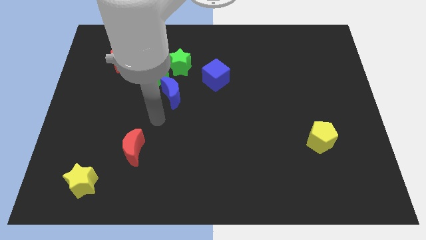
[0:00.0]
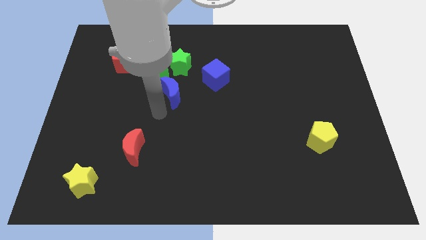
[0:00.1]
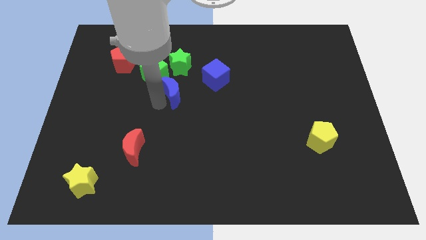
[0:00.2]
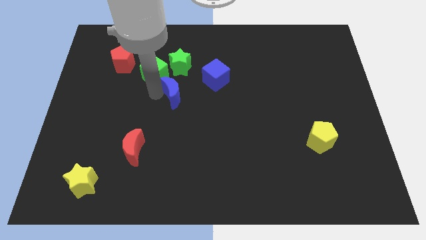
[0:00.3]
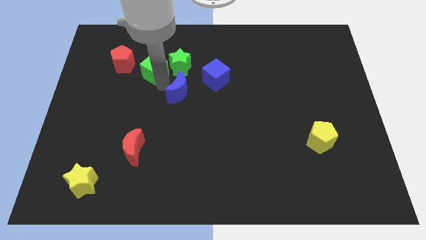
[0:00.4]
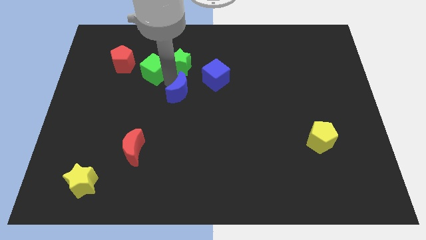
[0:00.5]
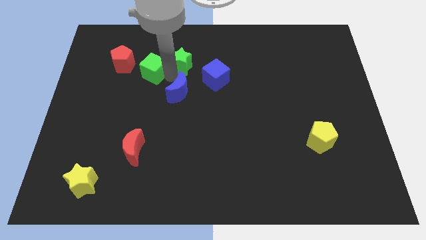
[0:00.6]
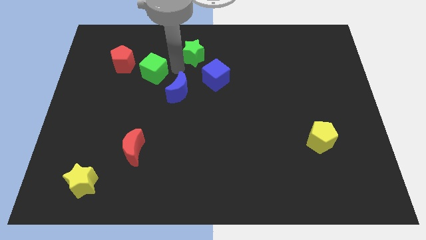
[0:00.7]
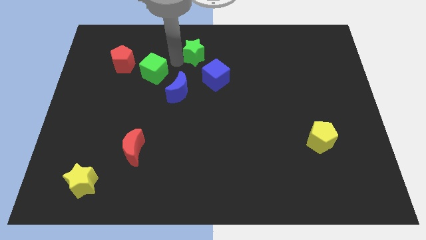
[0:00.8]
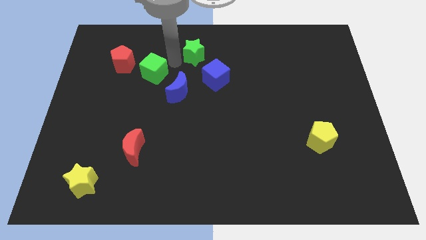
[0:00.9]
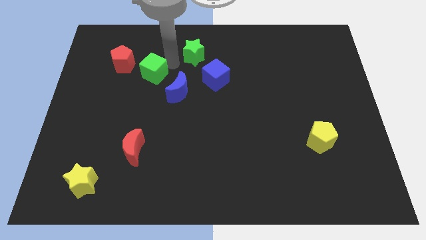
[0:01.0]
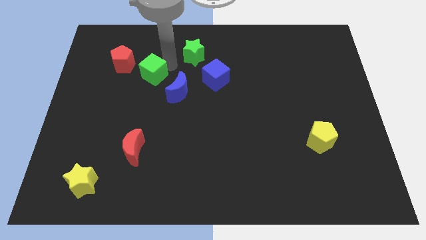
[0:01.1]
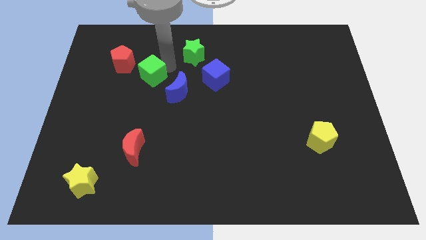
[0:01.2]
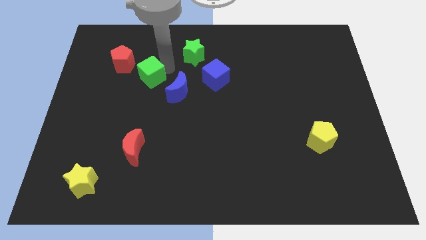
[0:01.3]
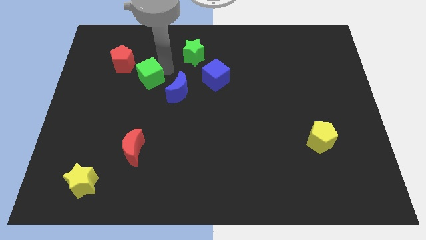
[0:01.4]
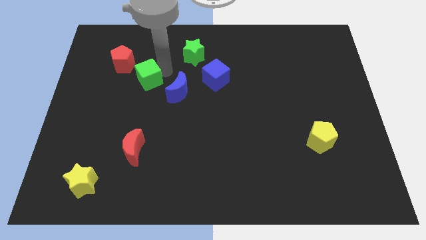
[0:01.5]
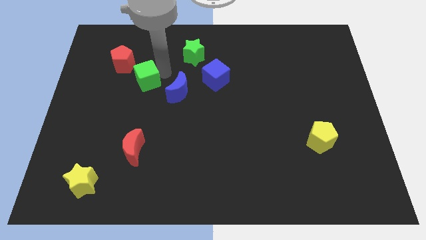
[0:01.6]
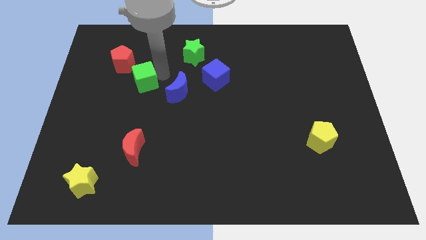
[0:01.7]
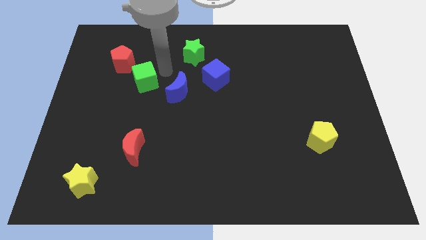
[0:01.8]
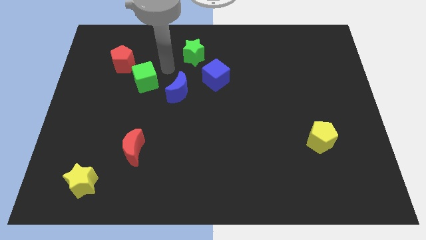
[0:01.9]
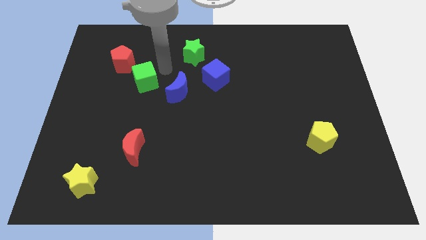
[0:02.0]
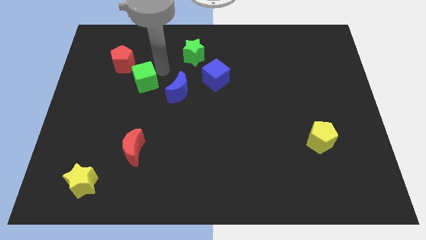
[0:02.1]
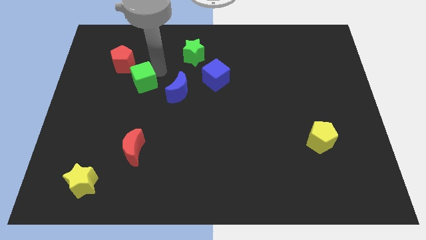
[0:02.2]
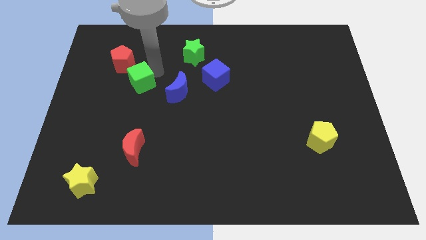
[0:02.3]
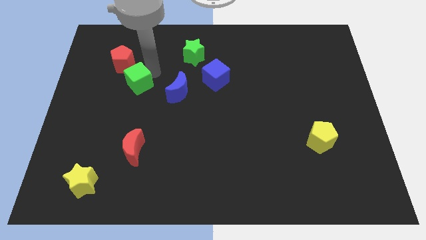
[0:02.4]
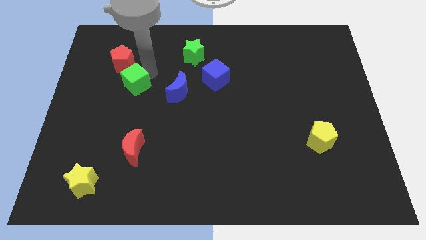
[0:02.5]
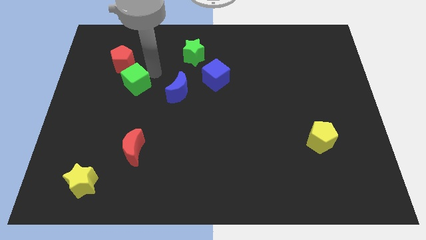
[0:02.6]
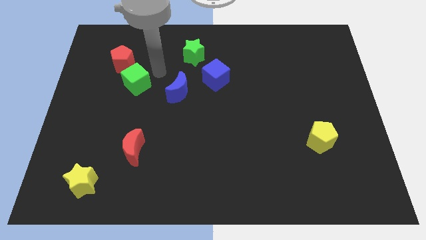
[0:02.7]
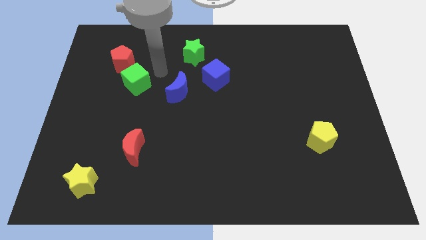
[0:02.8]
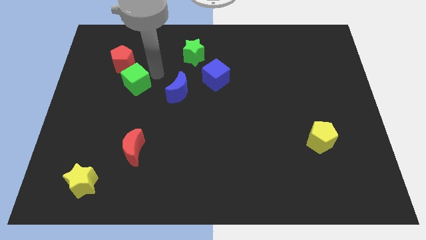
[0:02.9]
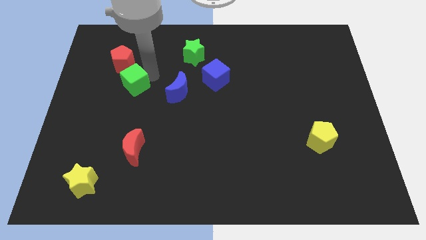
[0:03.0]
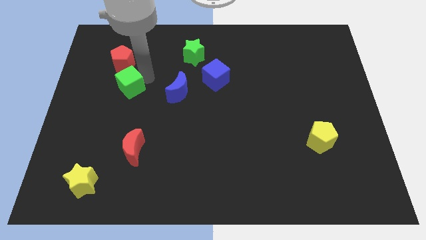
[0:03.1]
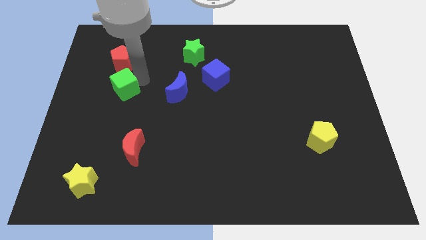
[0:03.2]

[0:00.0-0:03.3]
move the green cube away from the group

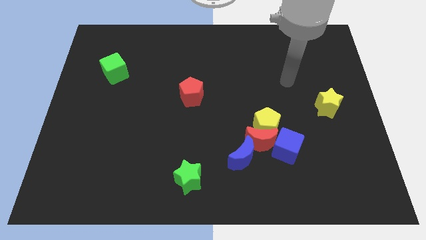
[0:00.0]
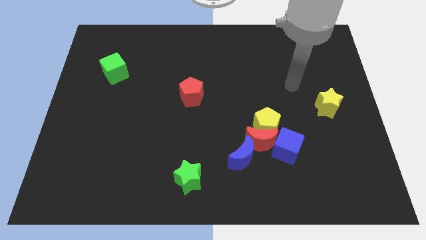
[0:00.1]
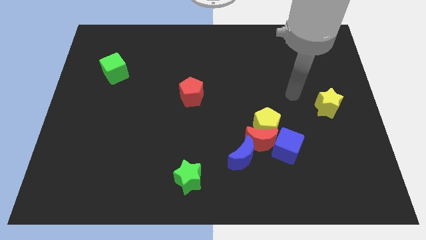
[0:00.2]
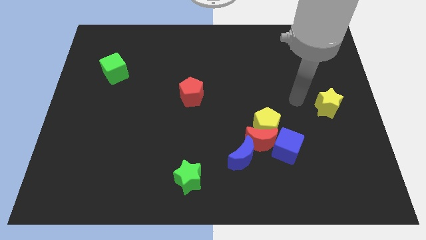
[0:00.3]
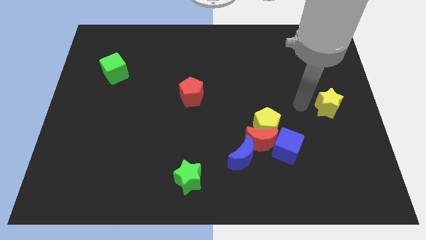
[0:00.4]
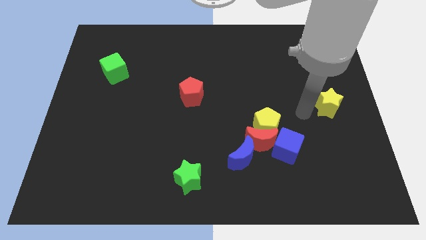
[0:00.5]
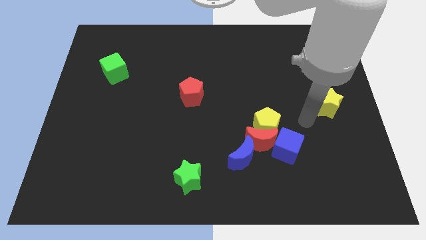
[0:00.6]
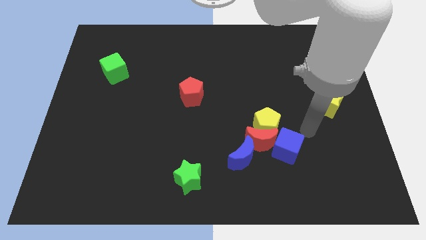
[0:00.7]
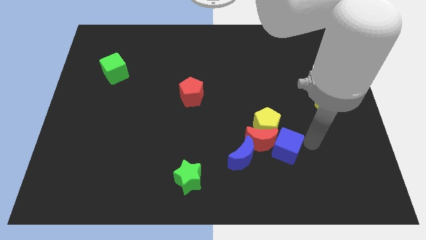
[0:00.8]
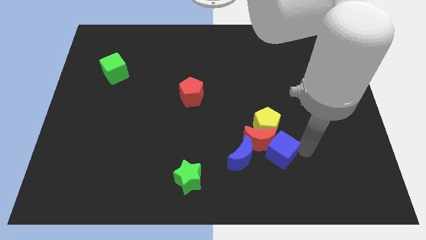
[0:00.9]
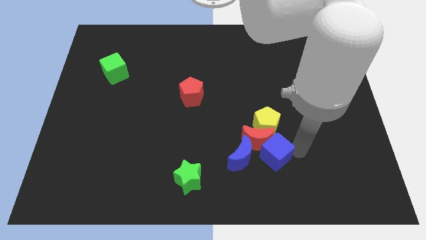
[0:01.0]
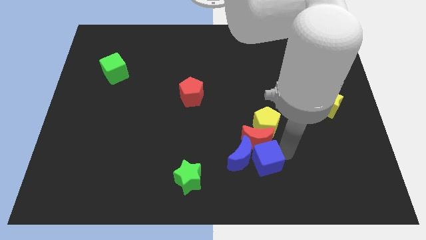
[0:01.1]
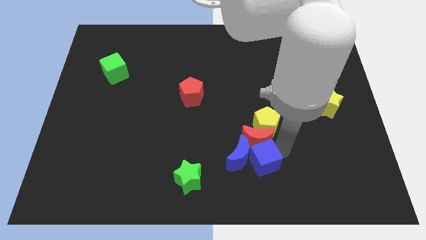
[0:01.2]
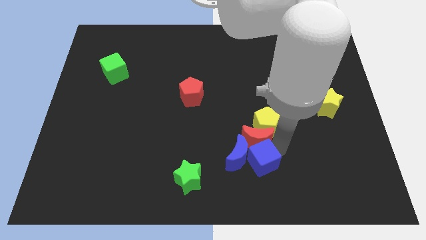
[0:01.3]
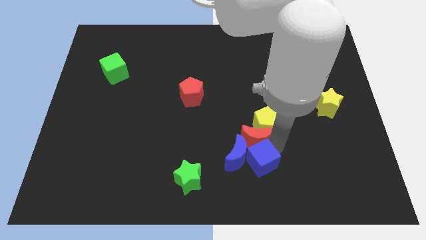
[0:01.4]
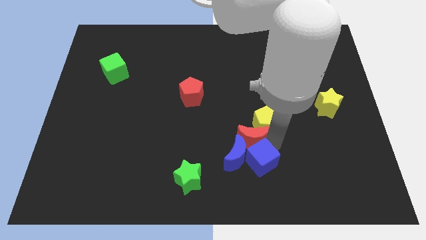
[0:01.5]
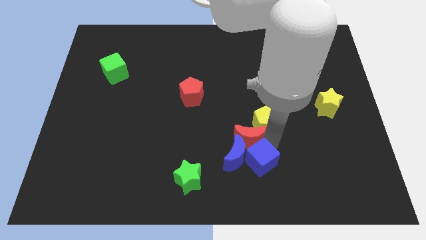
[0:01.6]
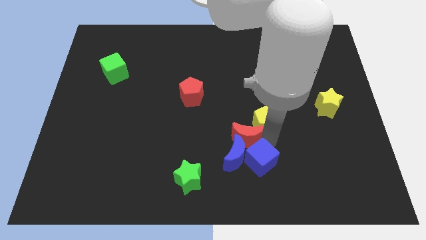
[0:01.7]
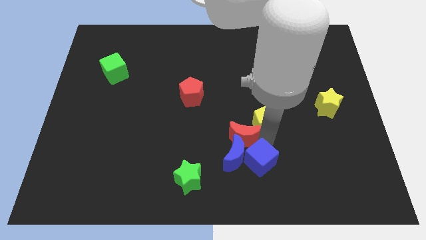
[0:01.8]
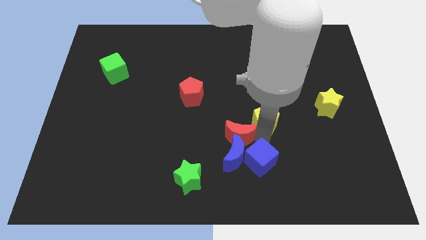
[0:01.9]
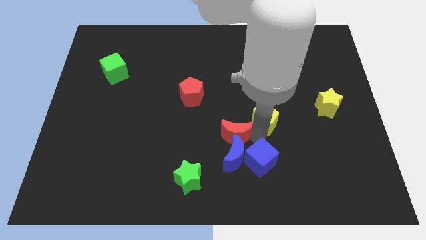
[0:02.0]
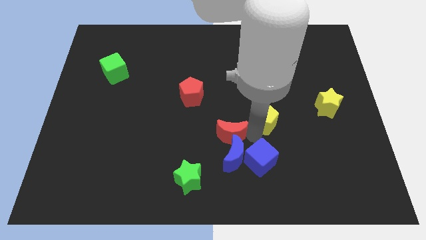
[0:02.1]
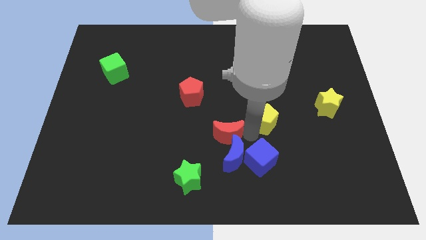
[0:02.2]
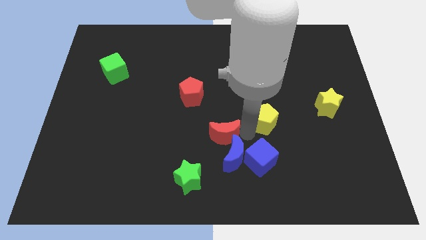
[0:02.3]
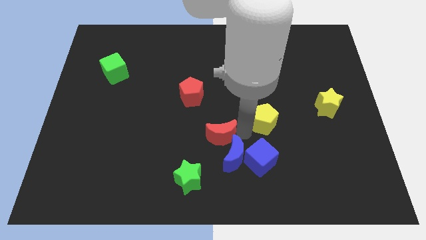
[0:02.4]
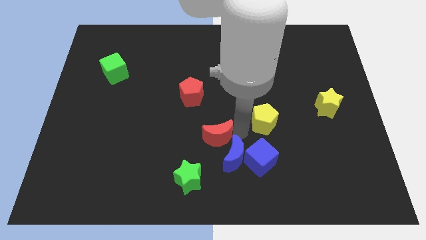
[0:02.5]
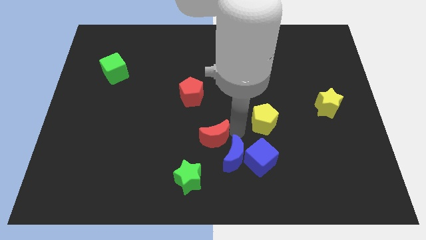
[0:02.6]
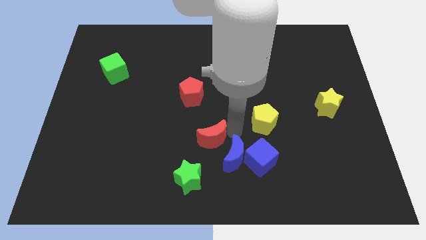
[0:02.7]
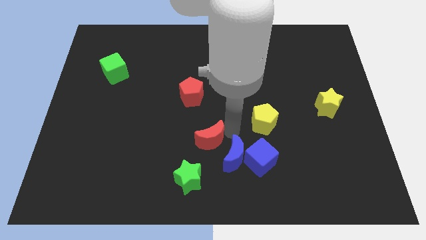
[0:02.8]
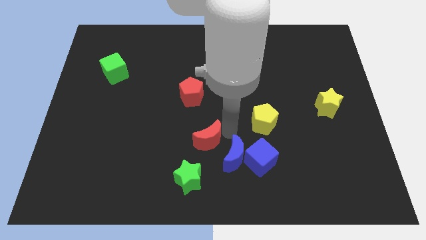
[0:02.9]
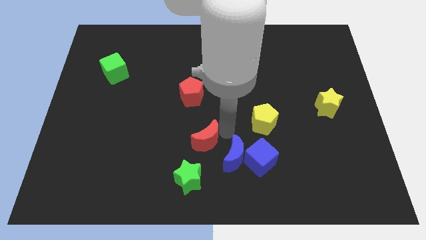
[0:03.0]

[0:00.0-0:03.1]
separate the red moon from the yellow pentagon, blue moon, and blue cube

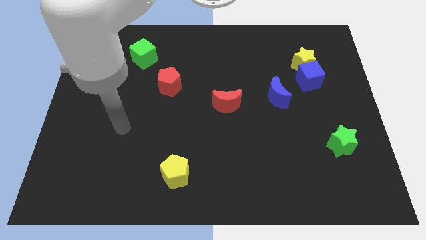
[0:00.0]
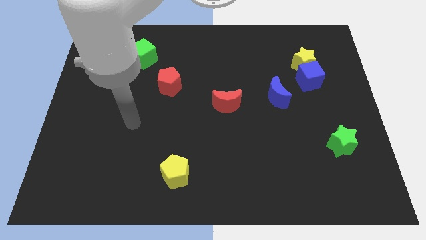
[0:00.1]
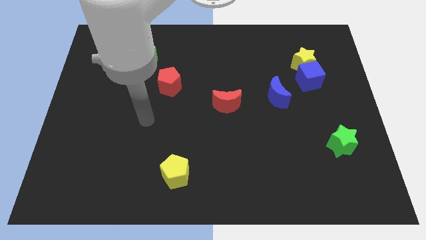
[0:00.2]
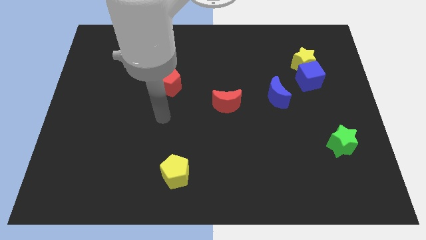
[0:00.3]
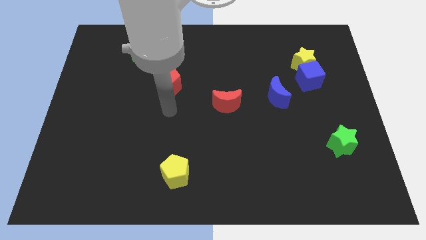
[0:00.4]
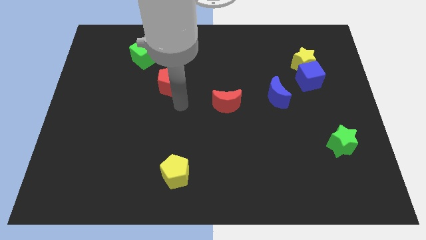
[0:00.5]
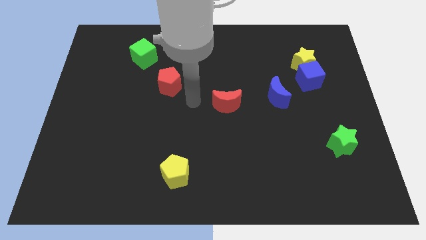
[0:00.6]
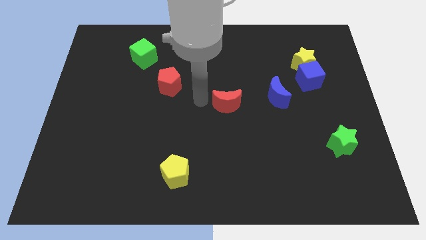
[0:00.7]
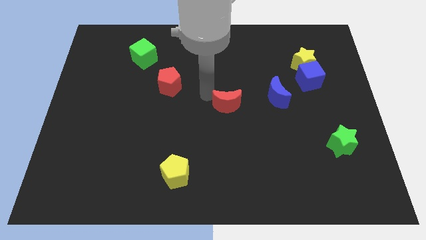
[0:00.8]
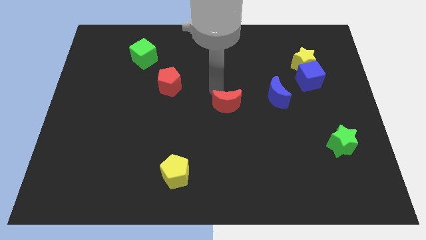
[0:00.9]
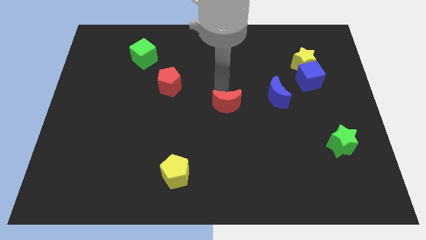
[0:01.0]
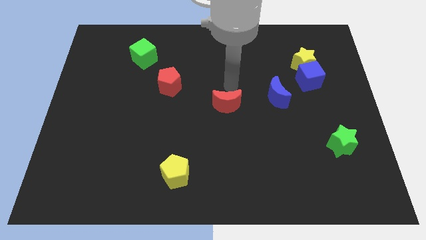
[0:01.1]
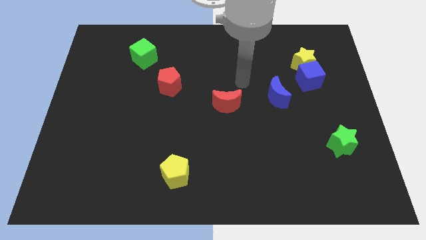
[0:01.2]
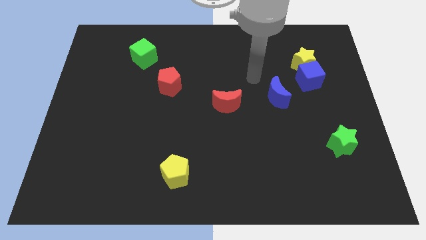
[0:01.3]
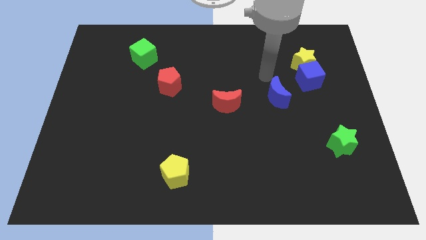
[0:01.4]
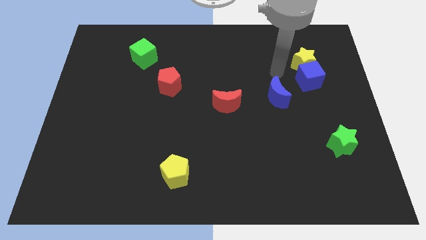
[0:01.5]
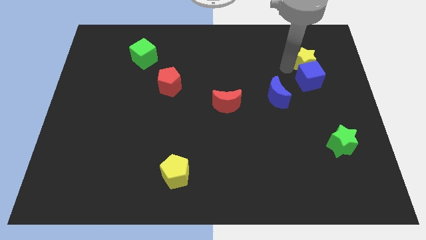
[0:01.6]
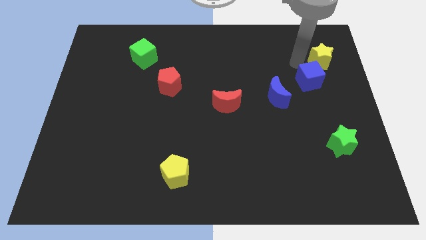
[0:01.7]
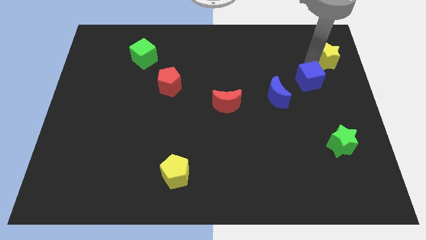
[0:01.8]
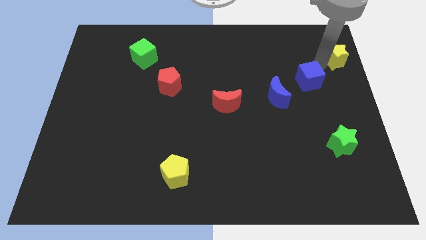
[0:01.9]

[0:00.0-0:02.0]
separate the blue cube from the yellow star

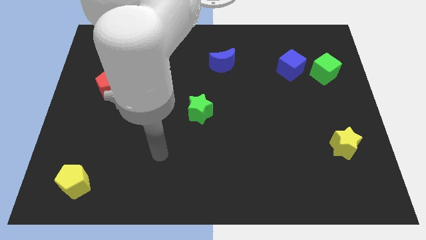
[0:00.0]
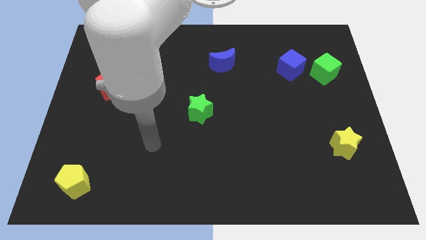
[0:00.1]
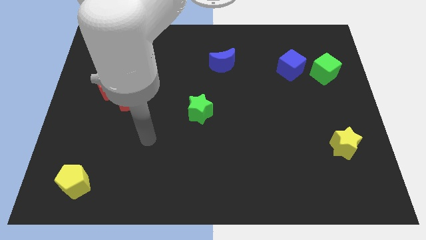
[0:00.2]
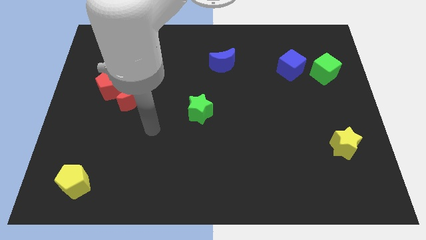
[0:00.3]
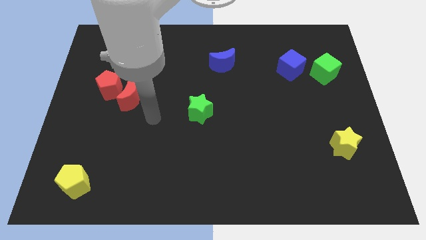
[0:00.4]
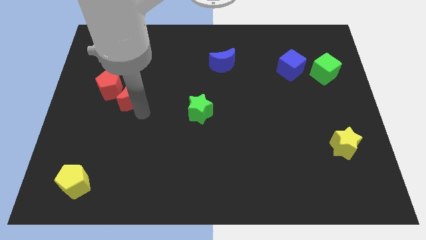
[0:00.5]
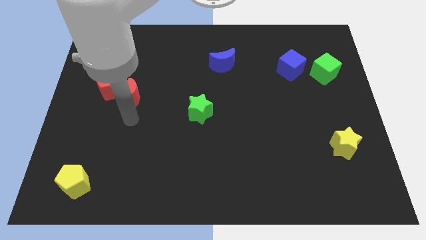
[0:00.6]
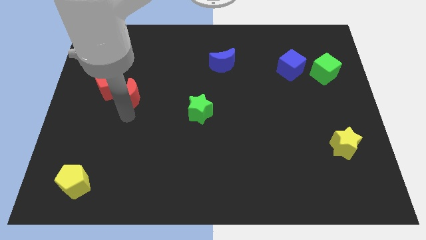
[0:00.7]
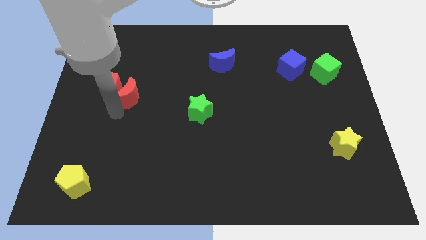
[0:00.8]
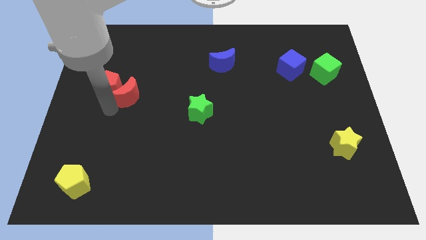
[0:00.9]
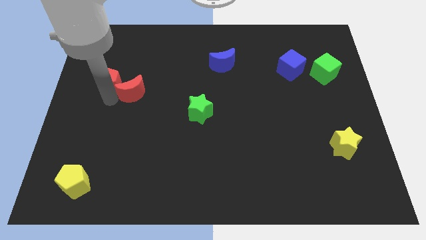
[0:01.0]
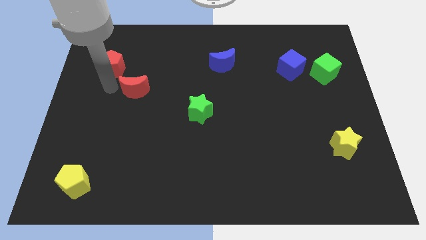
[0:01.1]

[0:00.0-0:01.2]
move the red moon away from the red pentagon
